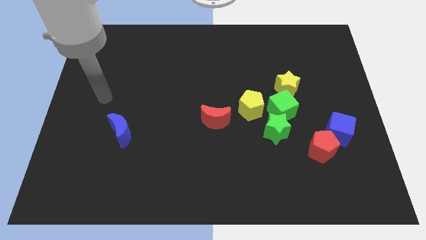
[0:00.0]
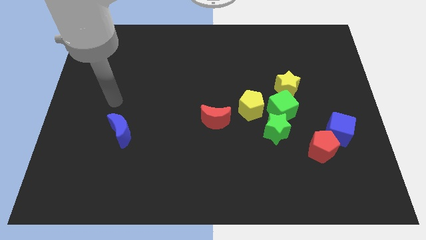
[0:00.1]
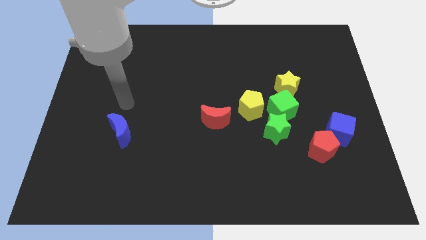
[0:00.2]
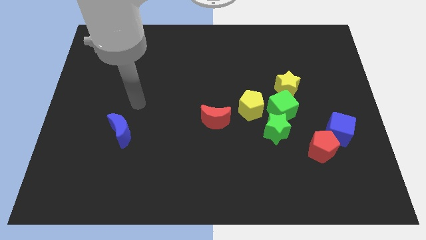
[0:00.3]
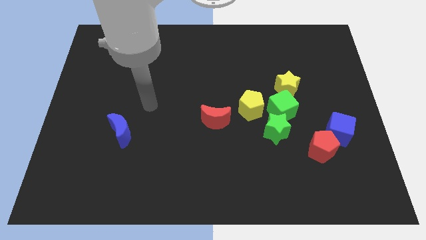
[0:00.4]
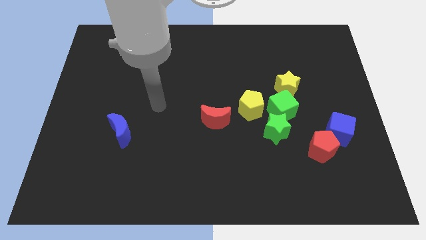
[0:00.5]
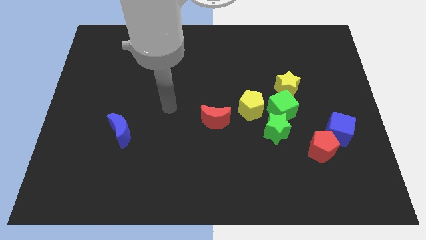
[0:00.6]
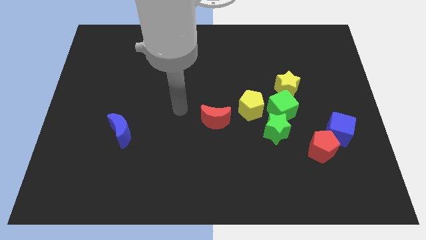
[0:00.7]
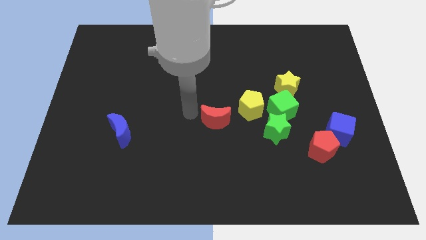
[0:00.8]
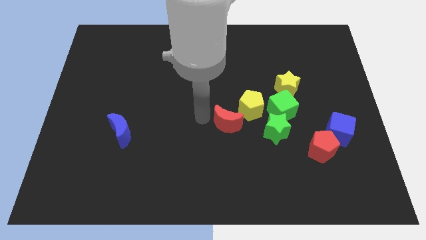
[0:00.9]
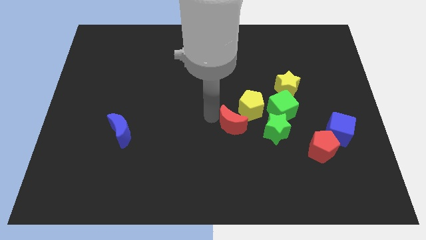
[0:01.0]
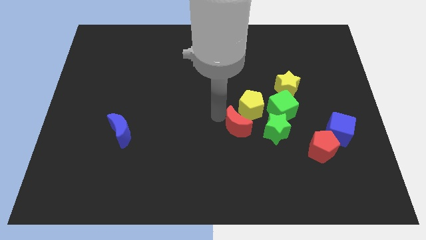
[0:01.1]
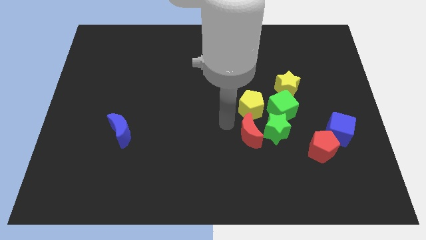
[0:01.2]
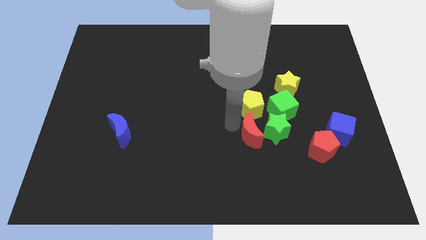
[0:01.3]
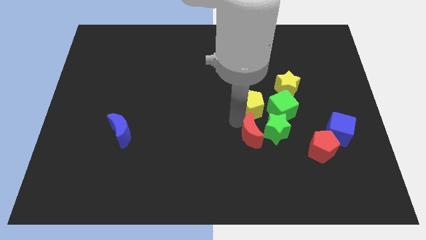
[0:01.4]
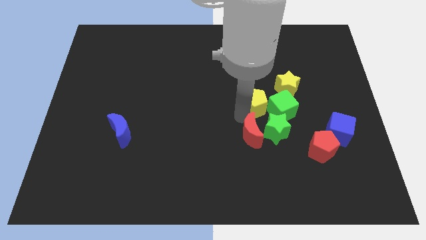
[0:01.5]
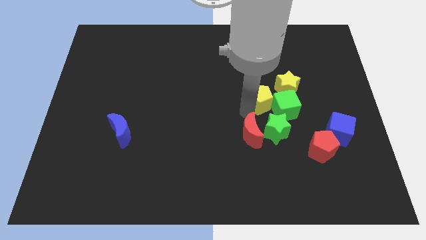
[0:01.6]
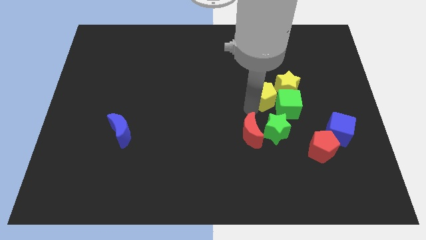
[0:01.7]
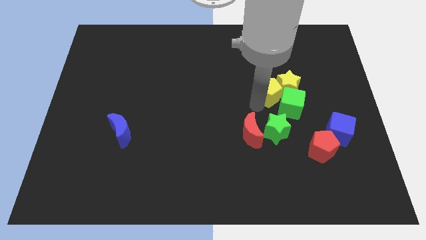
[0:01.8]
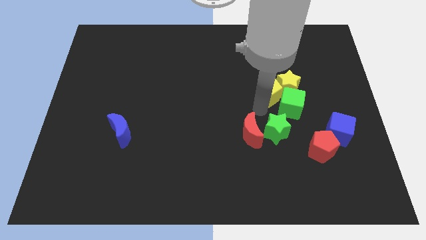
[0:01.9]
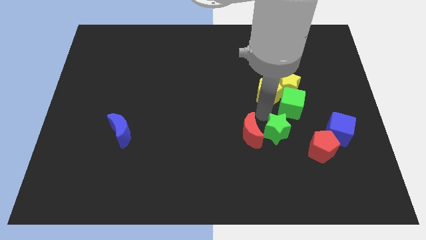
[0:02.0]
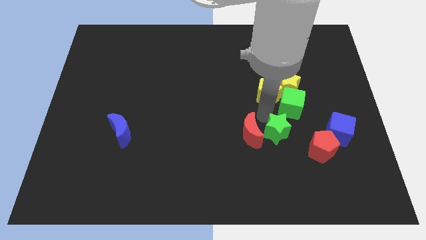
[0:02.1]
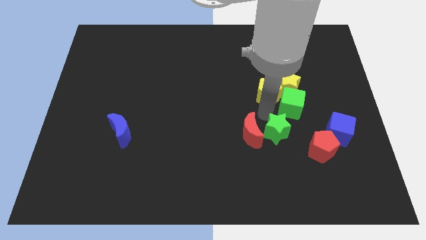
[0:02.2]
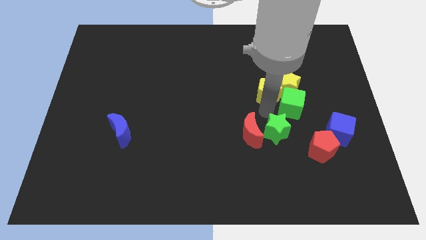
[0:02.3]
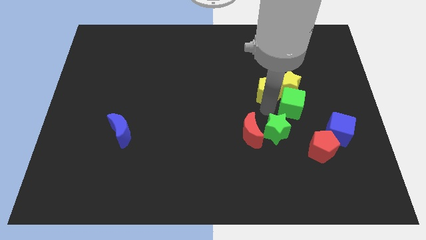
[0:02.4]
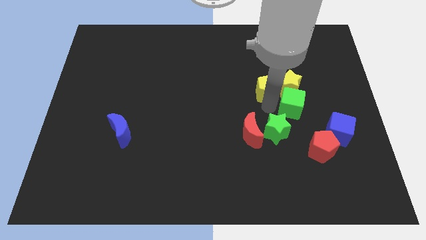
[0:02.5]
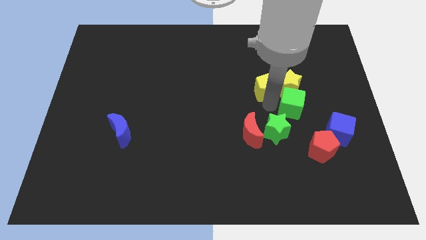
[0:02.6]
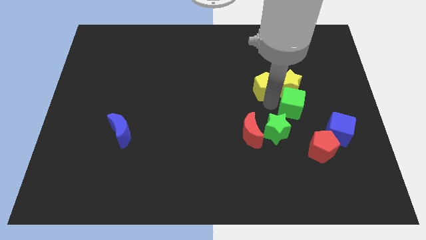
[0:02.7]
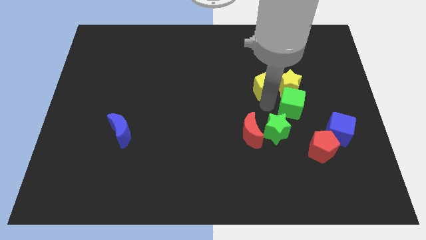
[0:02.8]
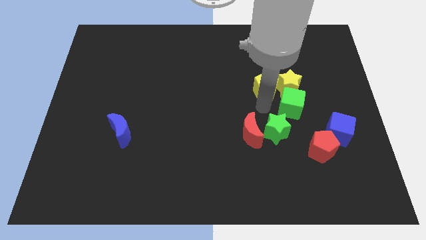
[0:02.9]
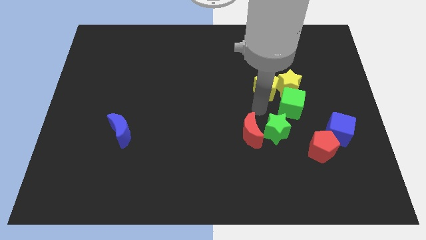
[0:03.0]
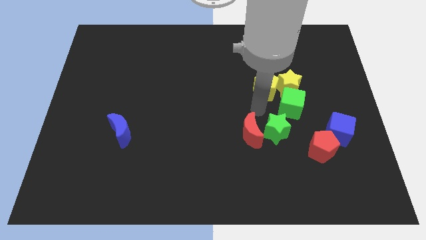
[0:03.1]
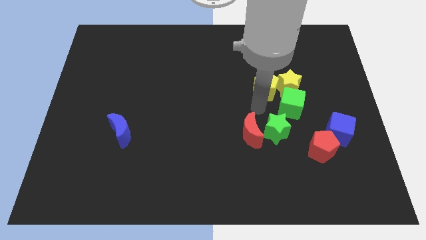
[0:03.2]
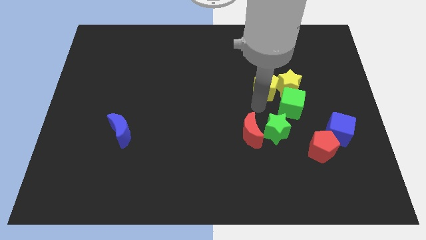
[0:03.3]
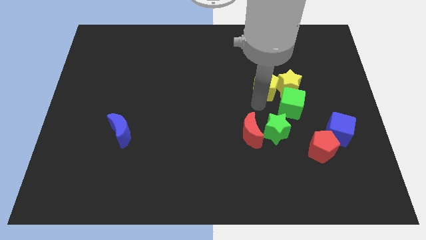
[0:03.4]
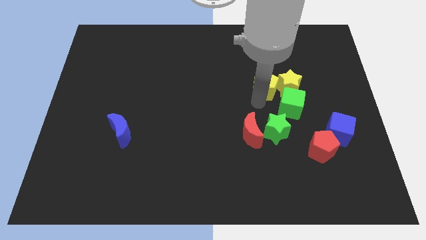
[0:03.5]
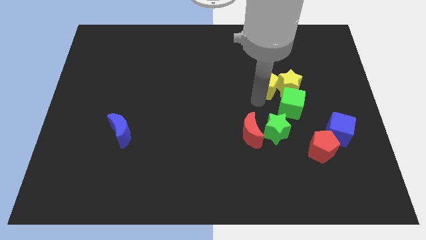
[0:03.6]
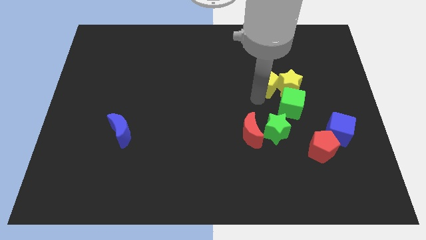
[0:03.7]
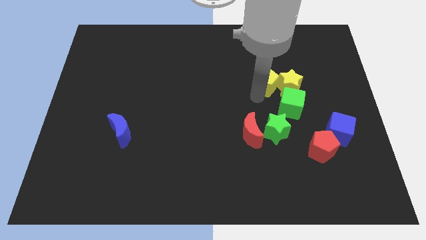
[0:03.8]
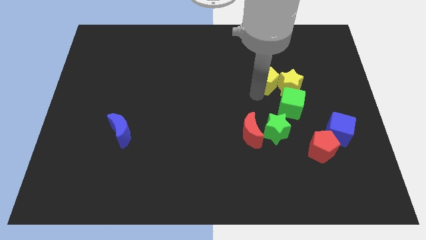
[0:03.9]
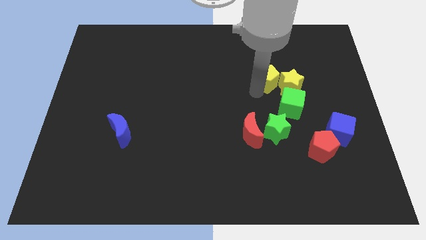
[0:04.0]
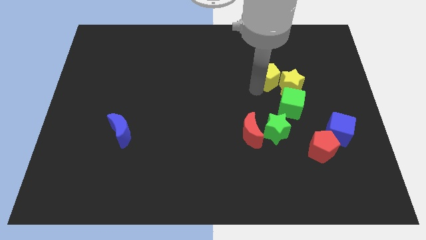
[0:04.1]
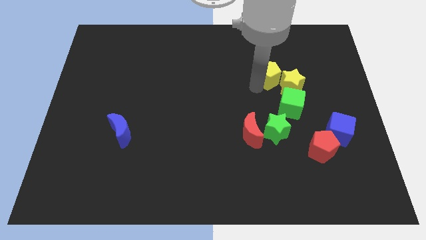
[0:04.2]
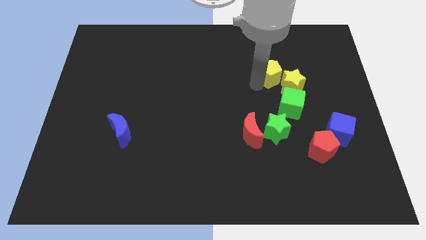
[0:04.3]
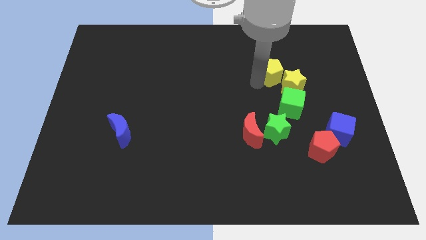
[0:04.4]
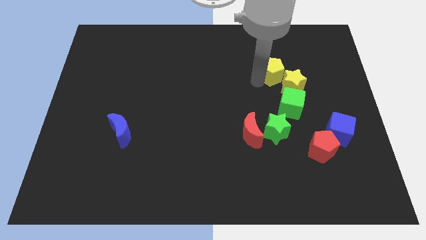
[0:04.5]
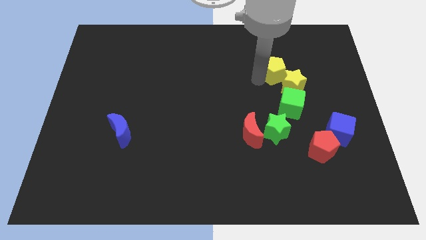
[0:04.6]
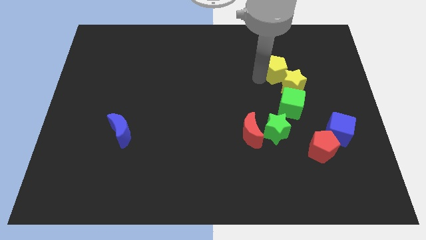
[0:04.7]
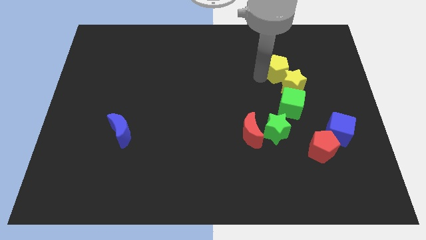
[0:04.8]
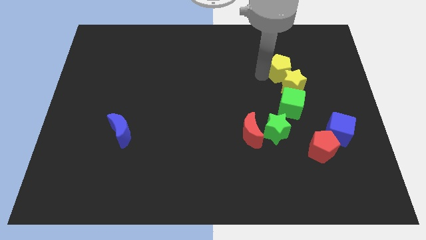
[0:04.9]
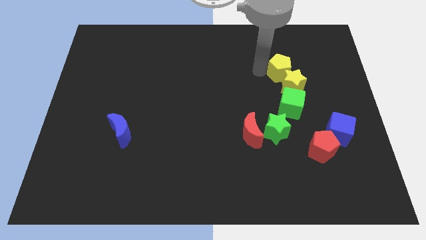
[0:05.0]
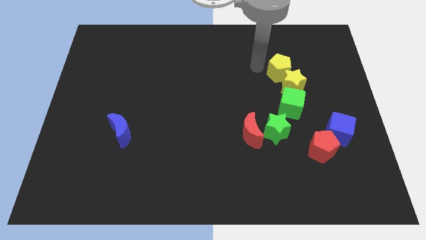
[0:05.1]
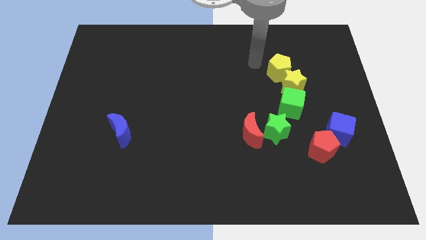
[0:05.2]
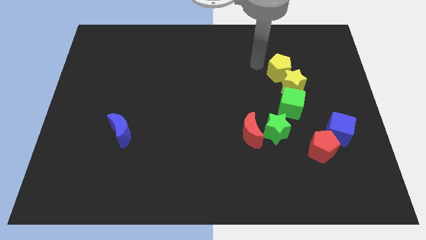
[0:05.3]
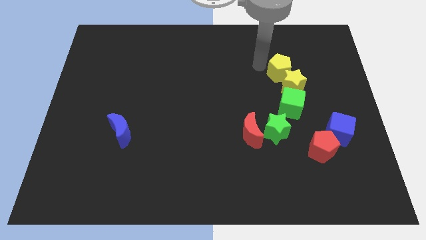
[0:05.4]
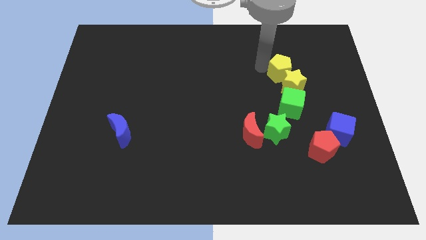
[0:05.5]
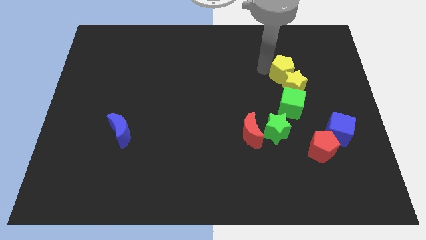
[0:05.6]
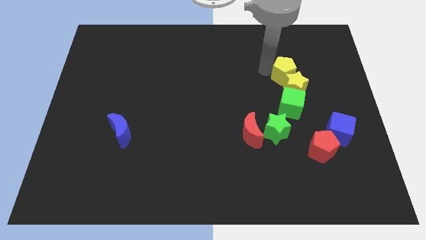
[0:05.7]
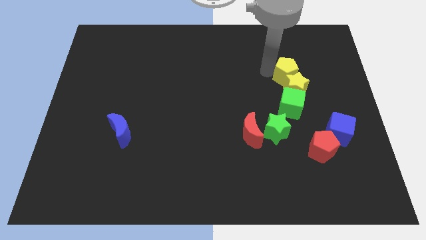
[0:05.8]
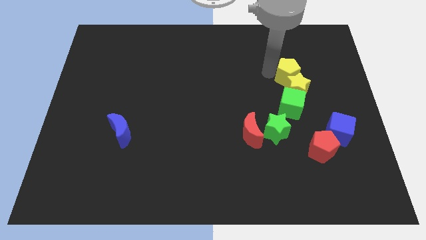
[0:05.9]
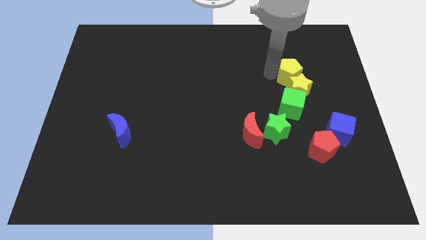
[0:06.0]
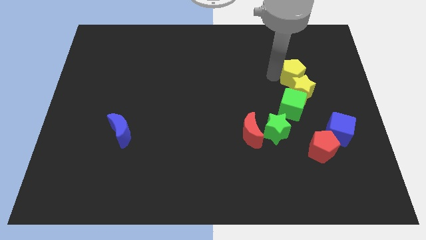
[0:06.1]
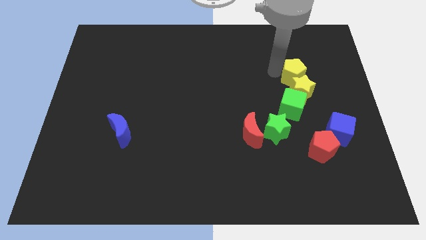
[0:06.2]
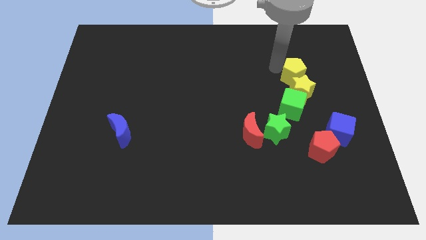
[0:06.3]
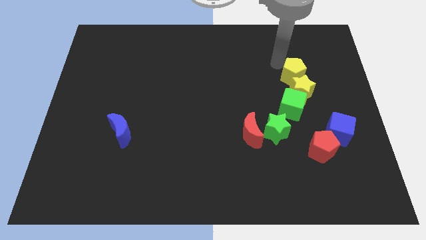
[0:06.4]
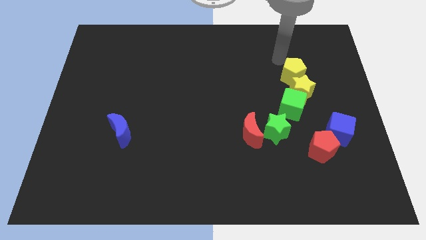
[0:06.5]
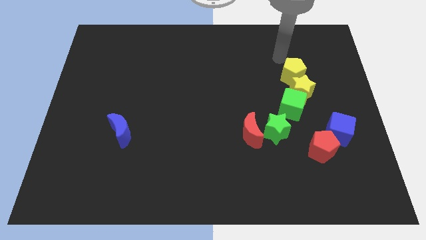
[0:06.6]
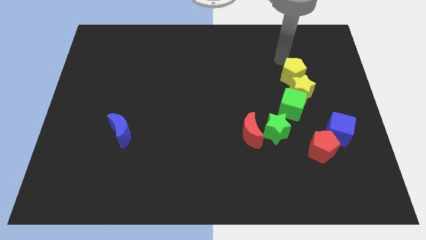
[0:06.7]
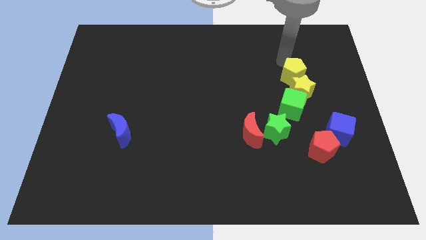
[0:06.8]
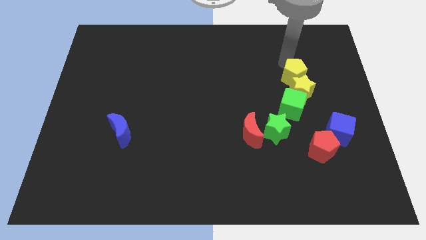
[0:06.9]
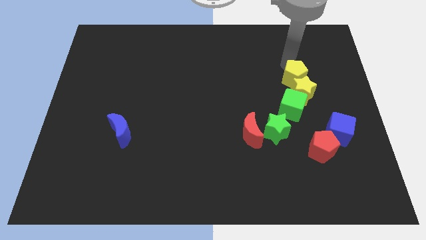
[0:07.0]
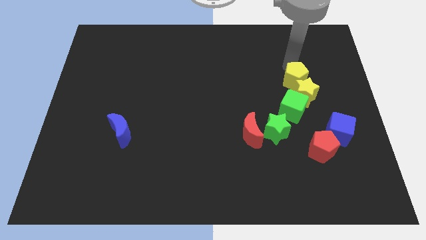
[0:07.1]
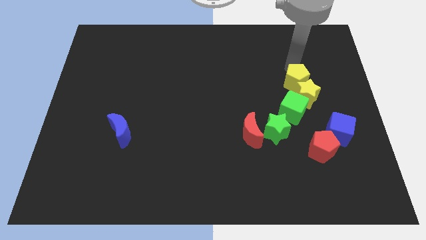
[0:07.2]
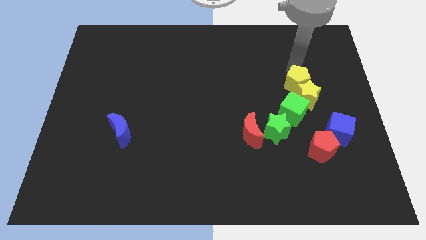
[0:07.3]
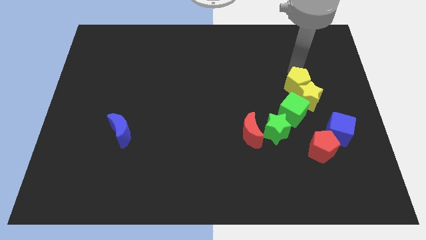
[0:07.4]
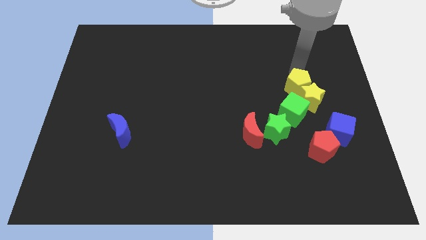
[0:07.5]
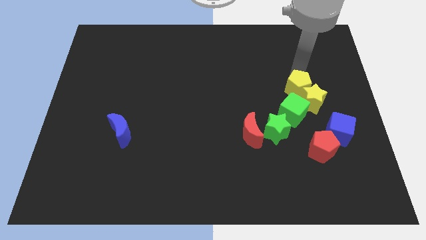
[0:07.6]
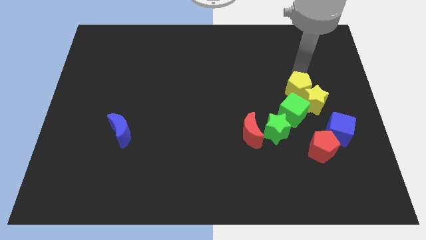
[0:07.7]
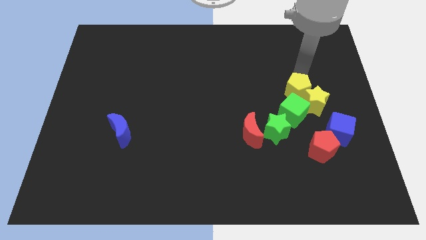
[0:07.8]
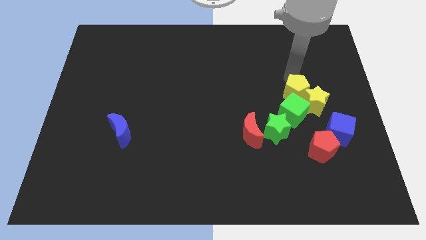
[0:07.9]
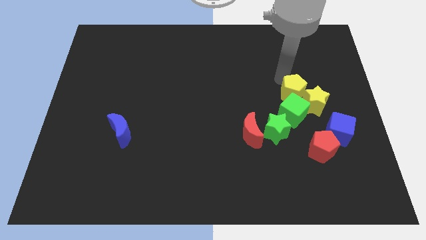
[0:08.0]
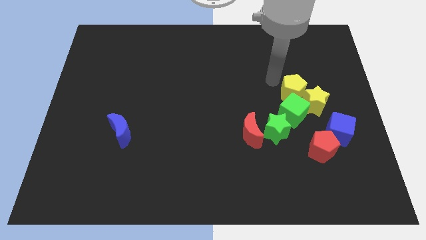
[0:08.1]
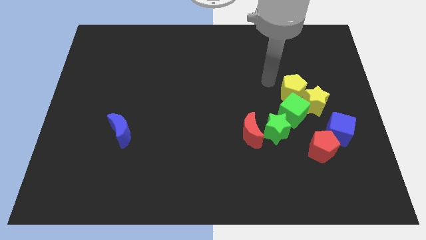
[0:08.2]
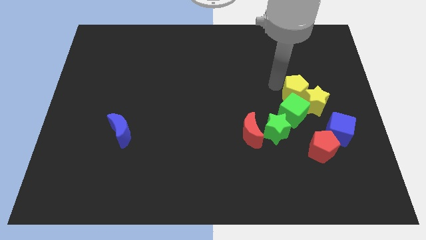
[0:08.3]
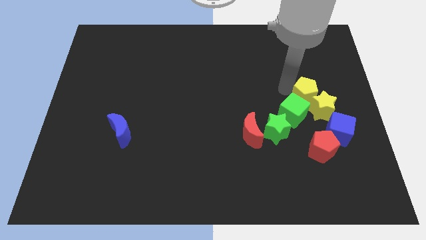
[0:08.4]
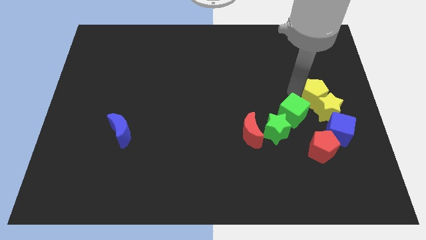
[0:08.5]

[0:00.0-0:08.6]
slide the yellow pentagon to the right side of the green cube
